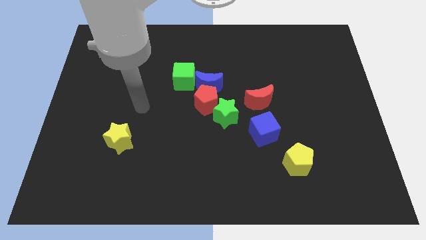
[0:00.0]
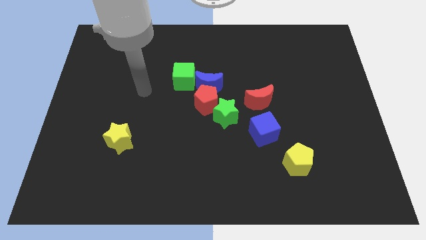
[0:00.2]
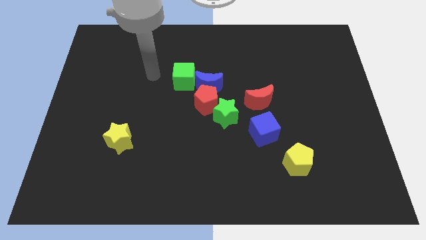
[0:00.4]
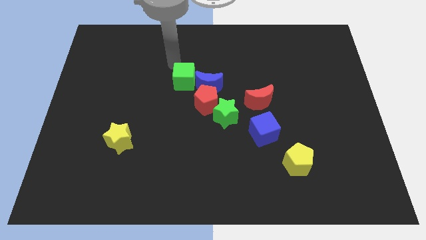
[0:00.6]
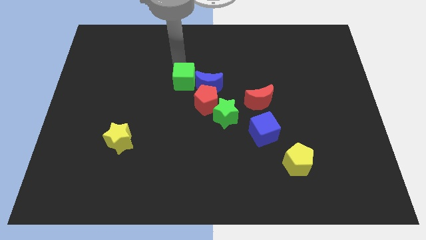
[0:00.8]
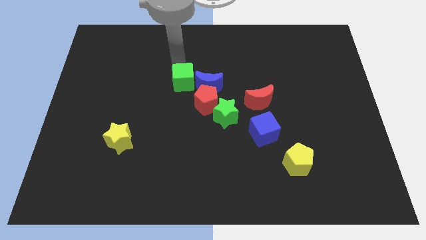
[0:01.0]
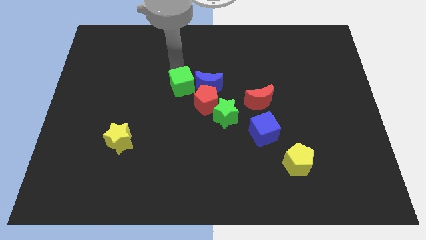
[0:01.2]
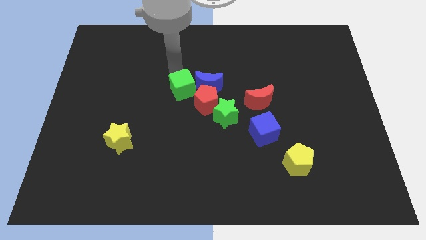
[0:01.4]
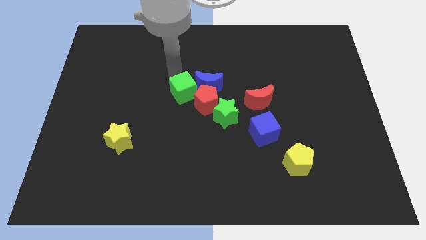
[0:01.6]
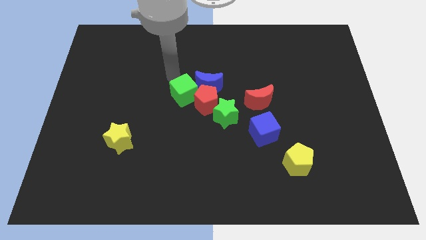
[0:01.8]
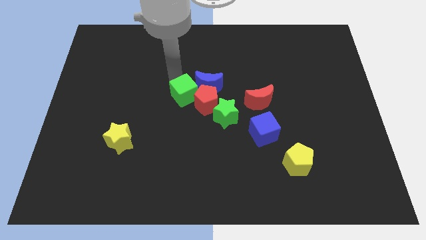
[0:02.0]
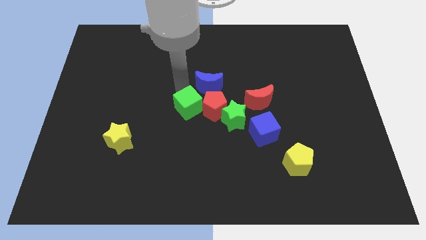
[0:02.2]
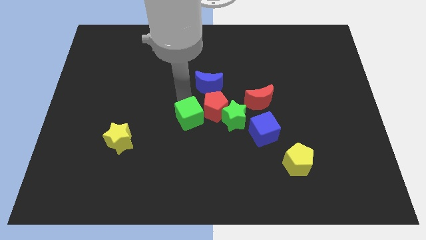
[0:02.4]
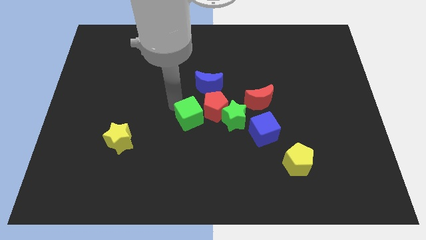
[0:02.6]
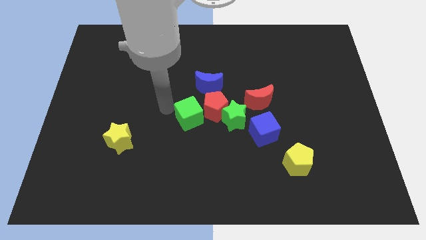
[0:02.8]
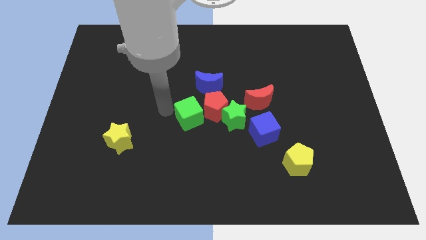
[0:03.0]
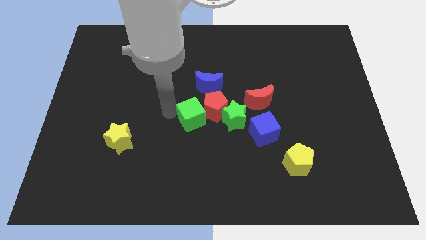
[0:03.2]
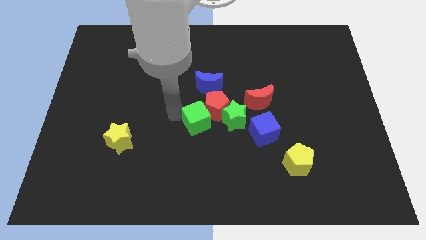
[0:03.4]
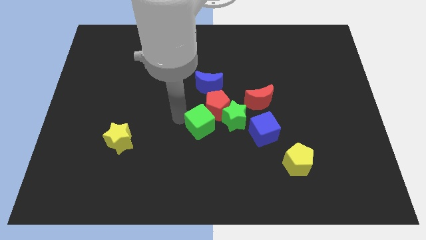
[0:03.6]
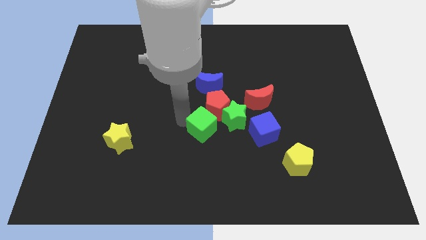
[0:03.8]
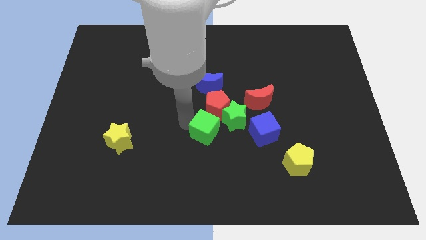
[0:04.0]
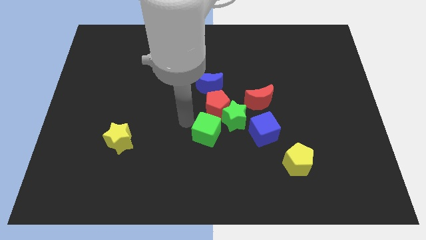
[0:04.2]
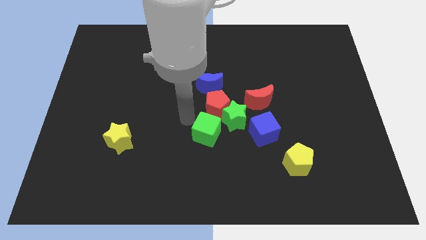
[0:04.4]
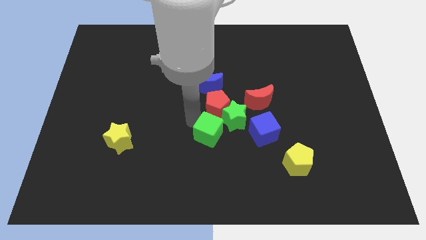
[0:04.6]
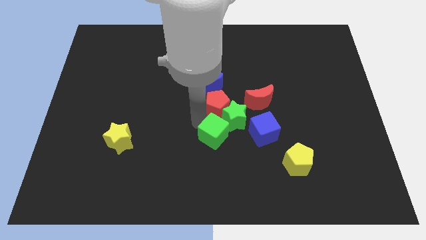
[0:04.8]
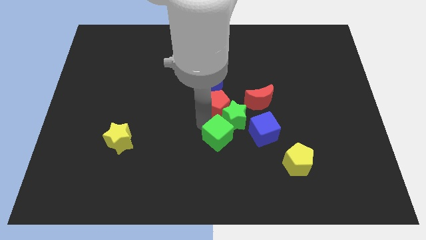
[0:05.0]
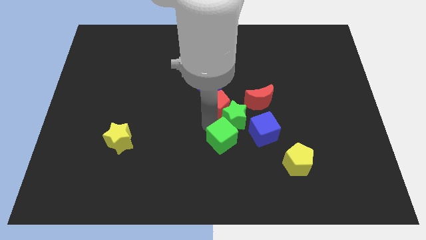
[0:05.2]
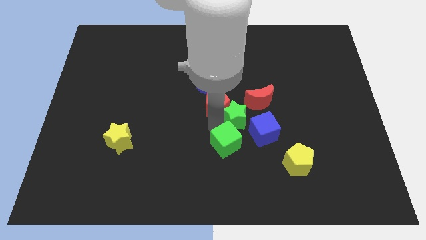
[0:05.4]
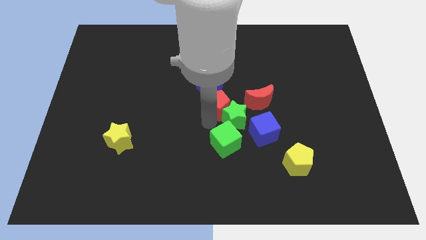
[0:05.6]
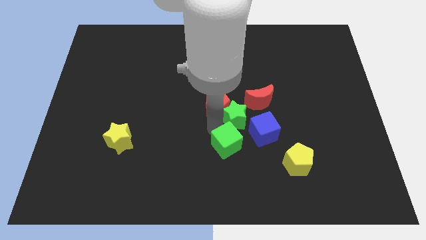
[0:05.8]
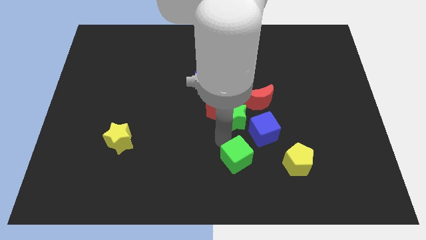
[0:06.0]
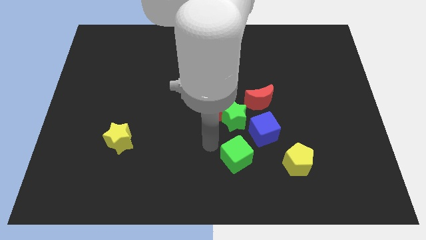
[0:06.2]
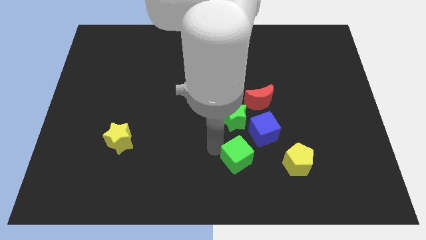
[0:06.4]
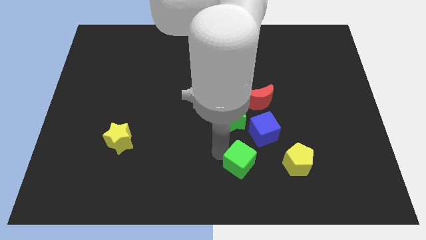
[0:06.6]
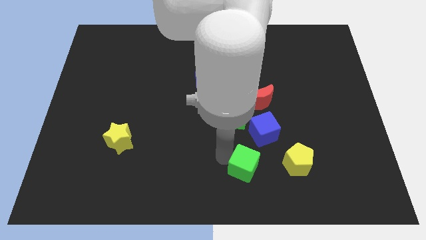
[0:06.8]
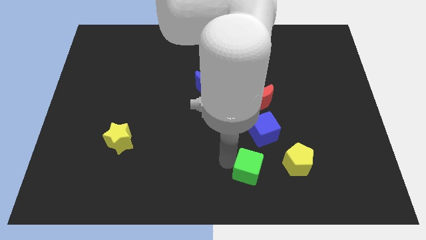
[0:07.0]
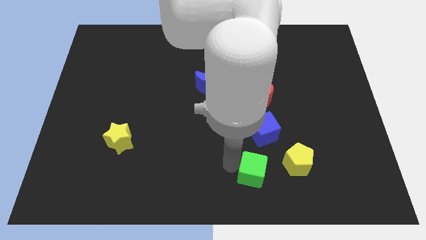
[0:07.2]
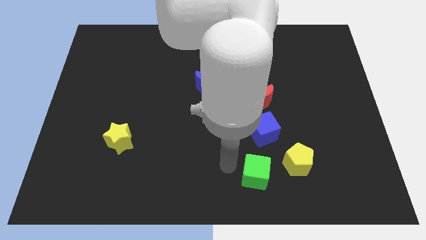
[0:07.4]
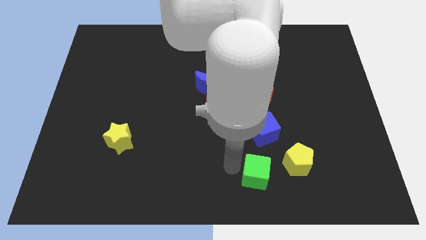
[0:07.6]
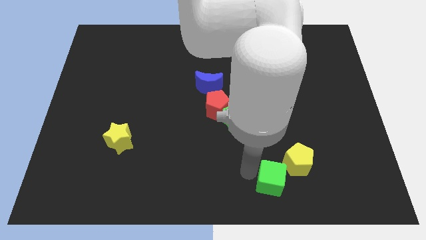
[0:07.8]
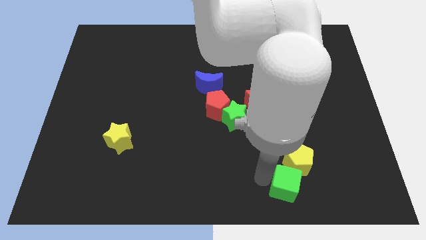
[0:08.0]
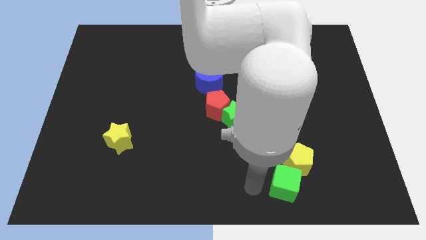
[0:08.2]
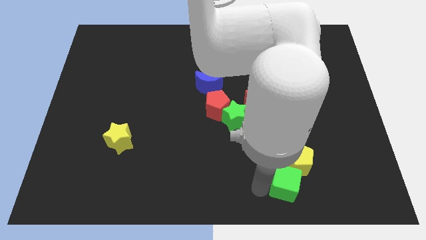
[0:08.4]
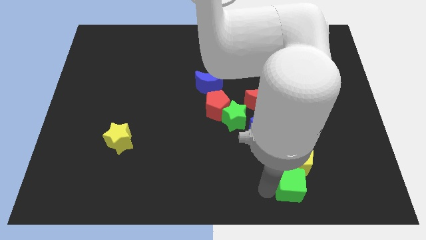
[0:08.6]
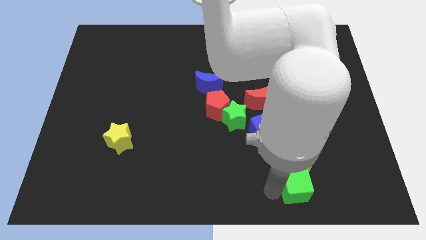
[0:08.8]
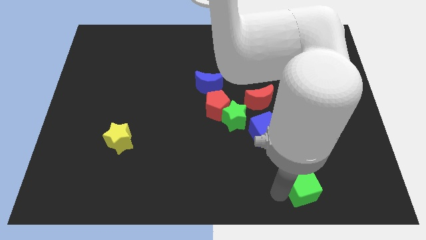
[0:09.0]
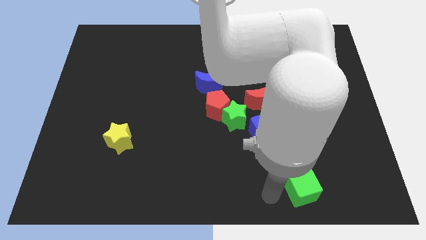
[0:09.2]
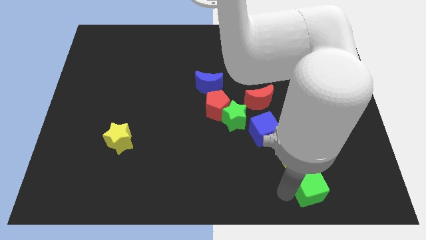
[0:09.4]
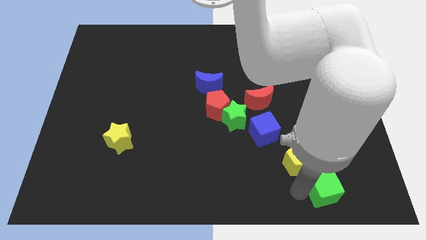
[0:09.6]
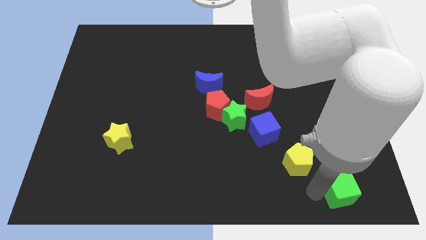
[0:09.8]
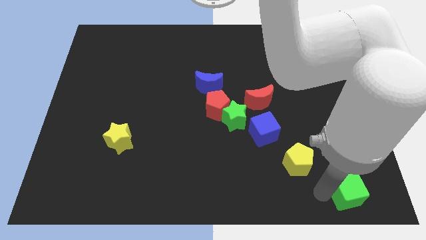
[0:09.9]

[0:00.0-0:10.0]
slide the green cube to the lower right corner

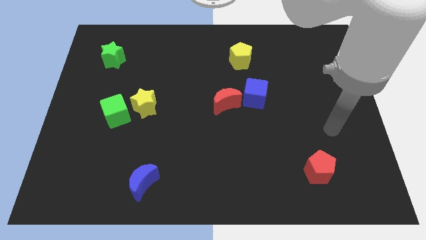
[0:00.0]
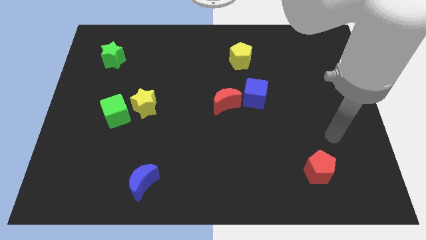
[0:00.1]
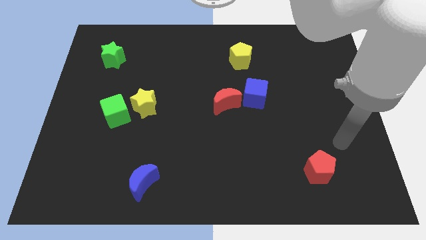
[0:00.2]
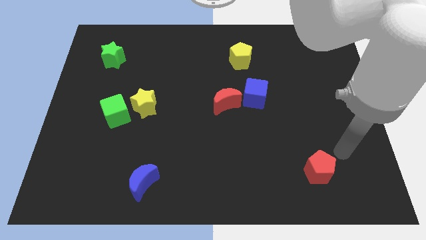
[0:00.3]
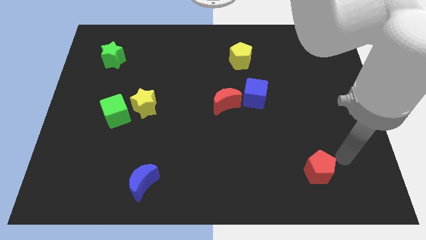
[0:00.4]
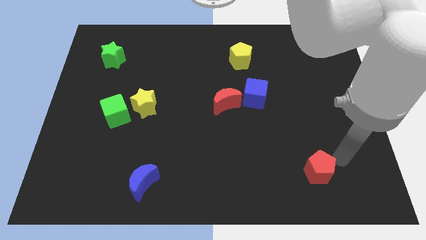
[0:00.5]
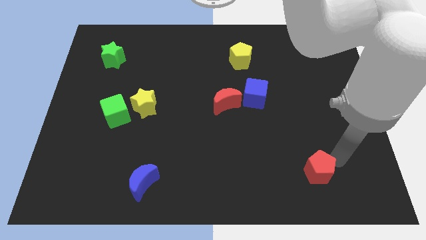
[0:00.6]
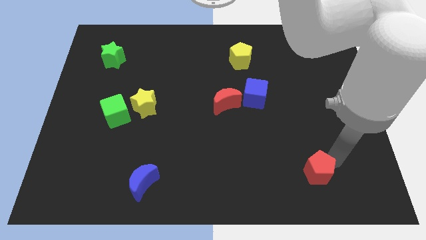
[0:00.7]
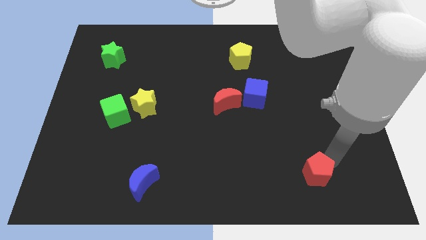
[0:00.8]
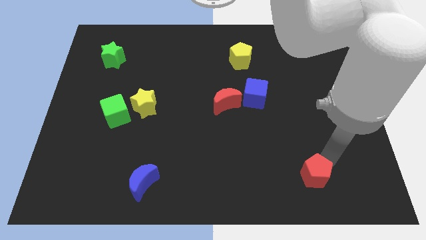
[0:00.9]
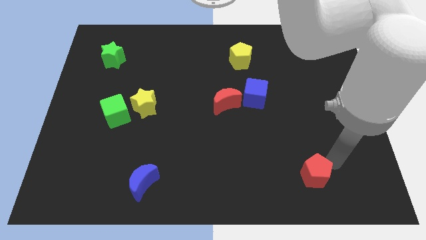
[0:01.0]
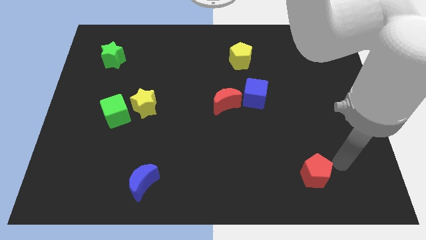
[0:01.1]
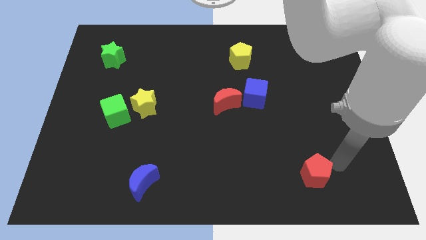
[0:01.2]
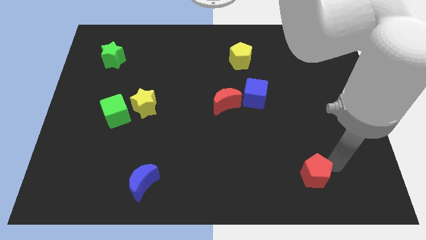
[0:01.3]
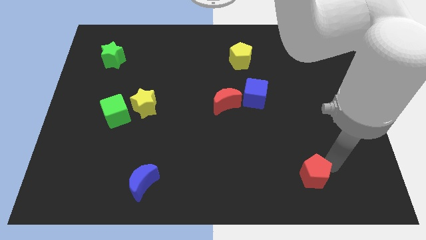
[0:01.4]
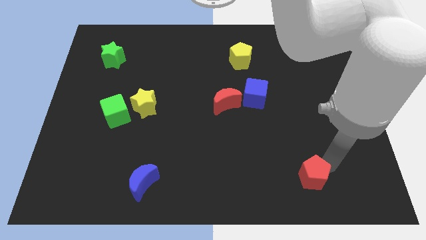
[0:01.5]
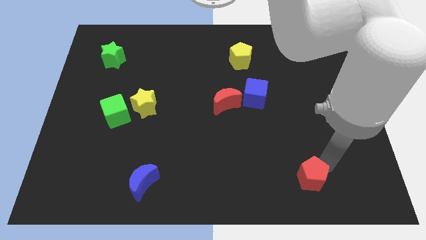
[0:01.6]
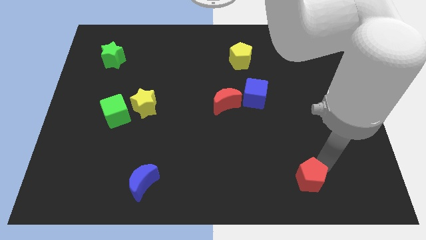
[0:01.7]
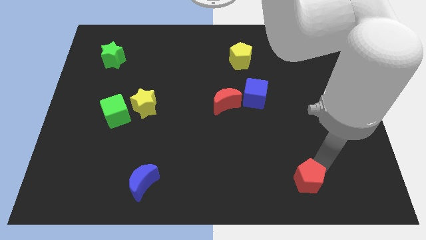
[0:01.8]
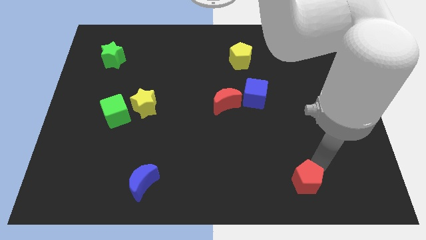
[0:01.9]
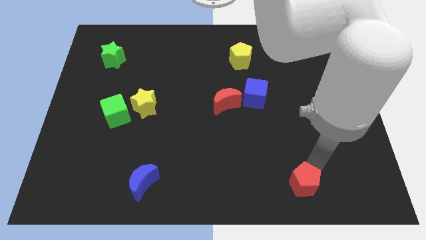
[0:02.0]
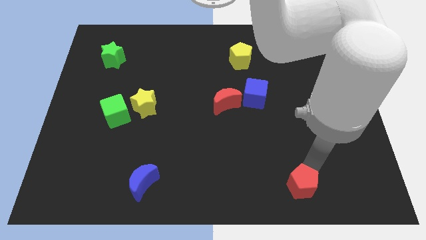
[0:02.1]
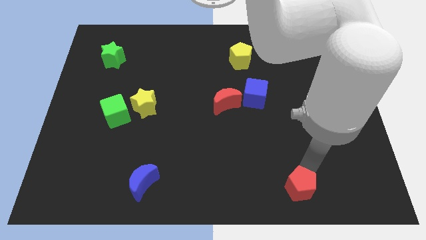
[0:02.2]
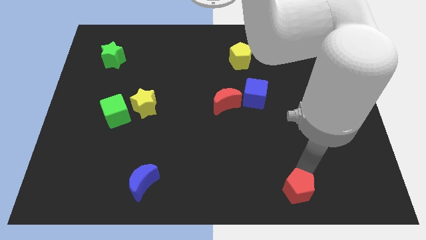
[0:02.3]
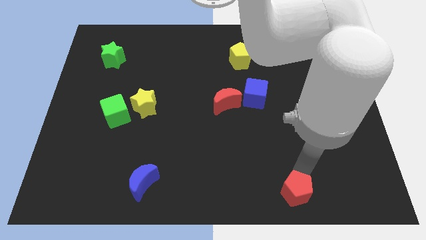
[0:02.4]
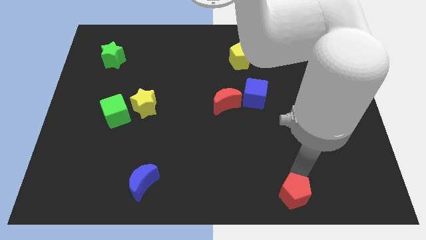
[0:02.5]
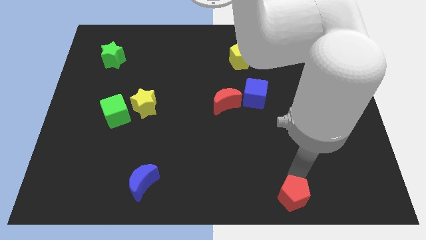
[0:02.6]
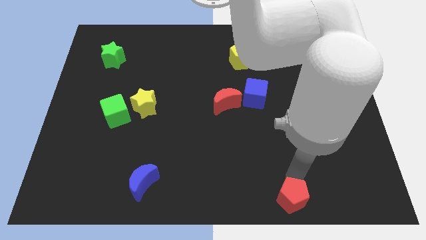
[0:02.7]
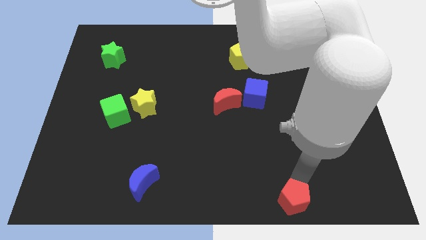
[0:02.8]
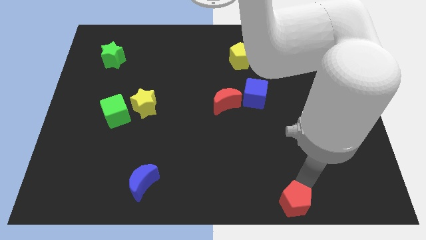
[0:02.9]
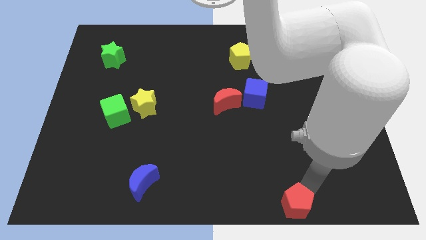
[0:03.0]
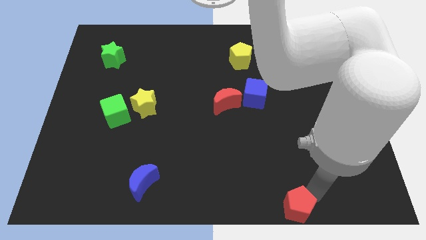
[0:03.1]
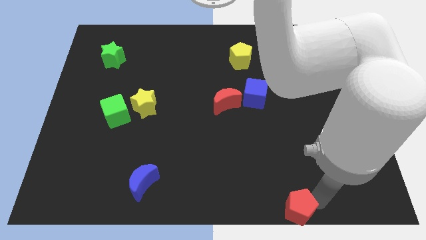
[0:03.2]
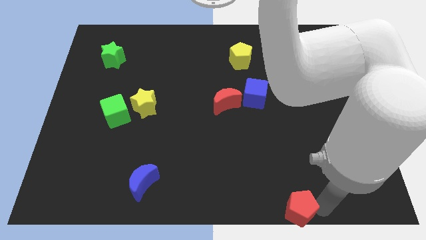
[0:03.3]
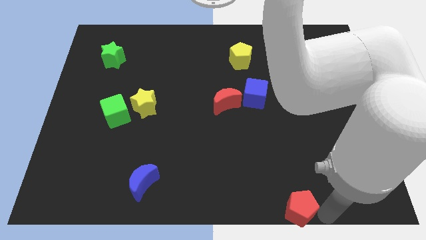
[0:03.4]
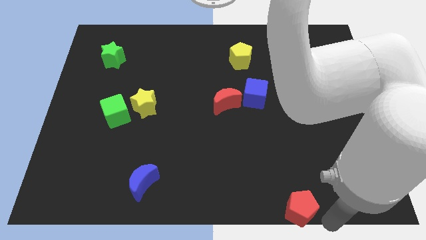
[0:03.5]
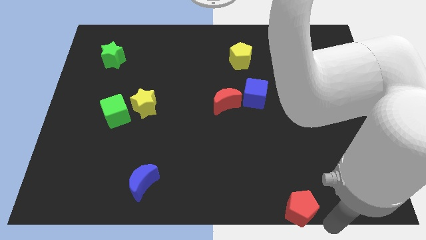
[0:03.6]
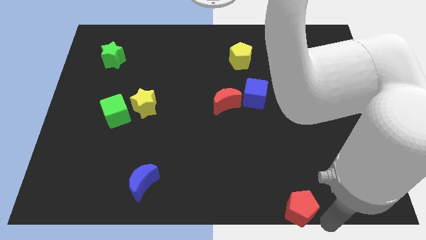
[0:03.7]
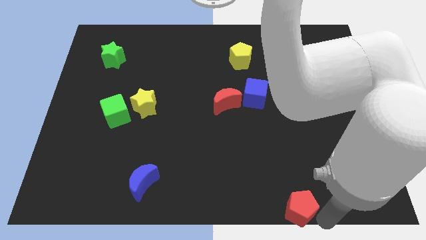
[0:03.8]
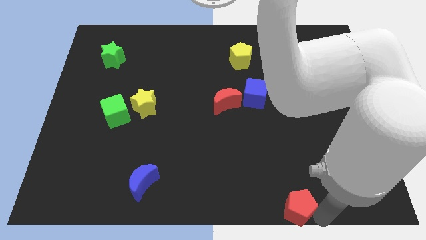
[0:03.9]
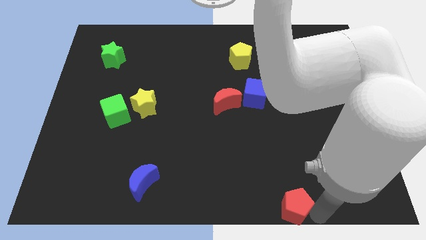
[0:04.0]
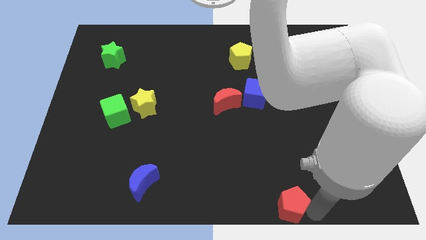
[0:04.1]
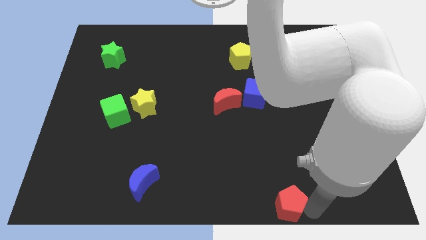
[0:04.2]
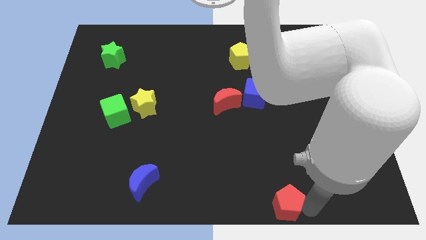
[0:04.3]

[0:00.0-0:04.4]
slide the red pentagon to the bottom
